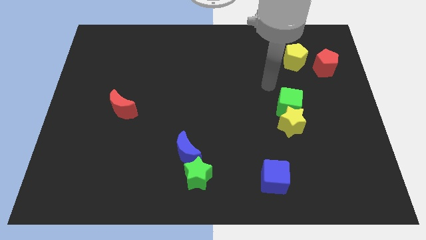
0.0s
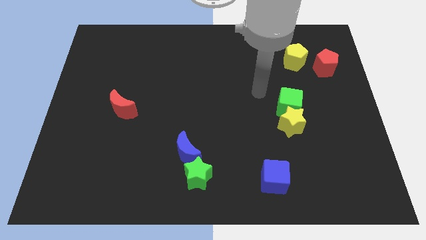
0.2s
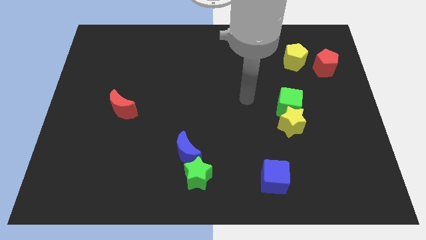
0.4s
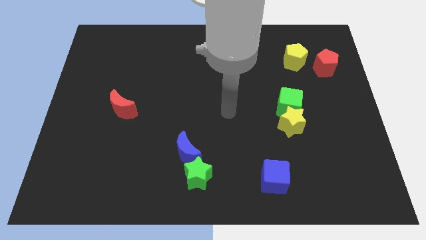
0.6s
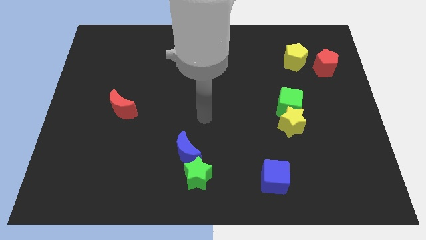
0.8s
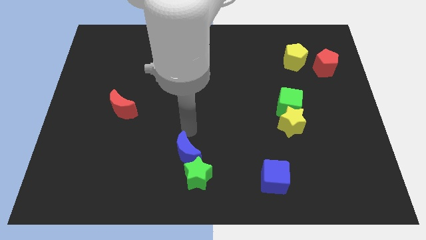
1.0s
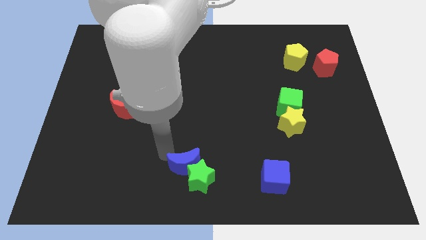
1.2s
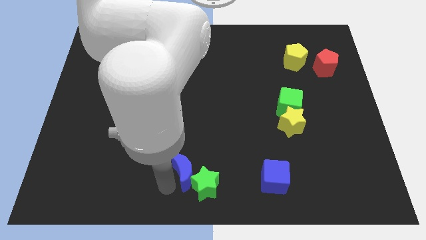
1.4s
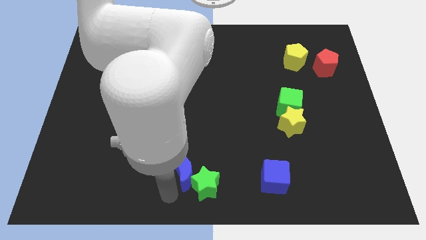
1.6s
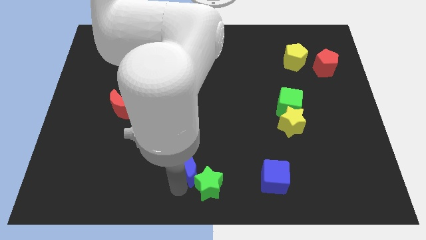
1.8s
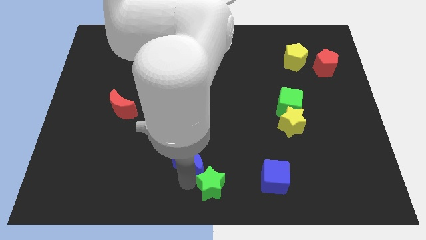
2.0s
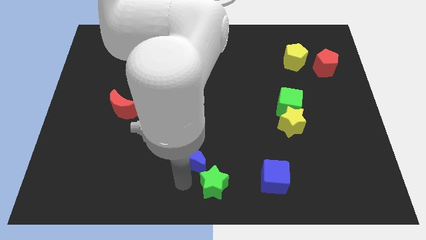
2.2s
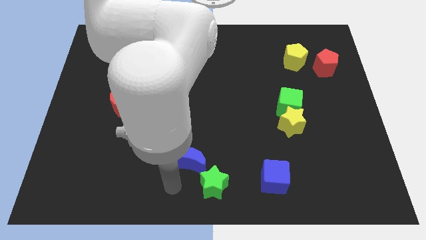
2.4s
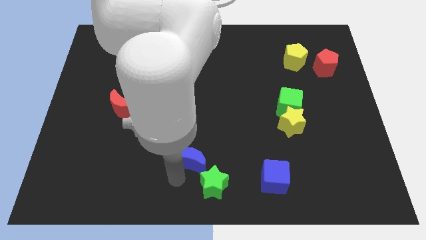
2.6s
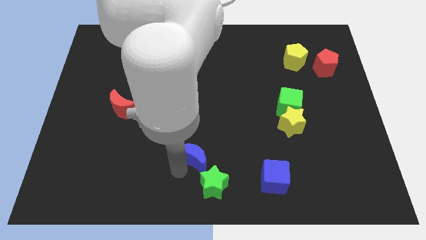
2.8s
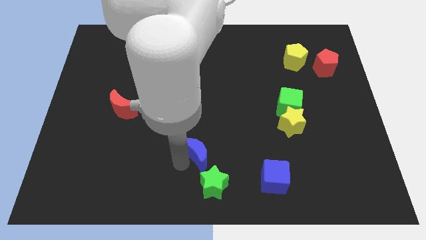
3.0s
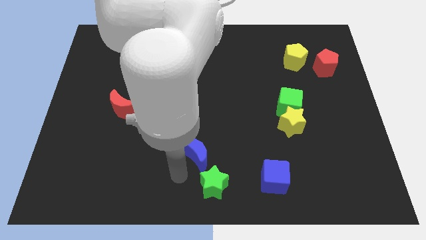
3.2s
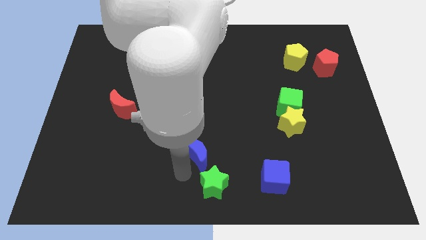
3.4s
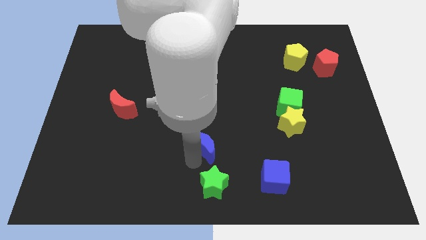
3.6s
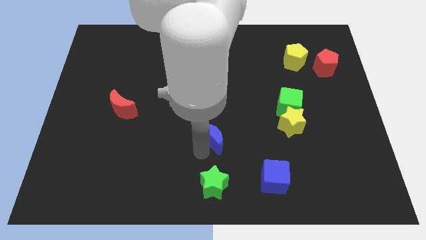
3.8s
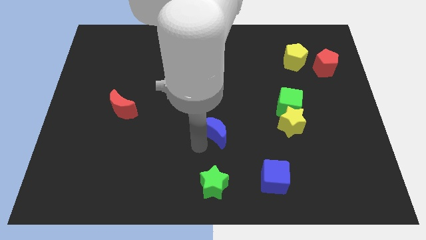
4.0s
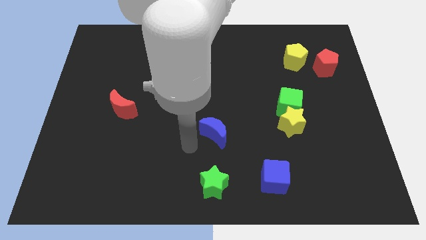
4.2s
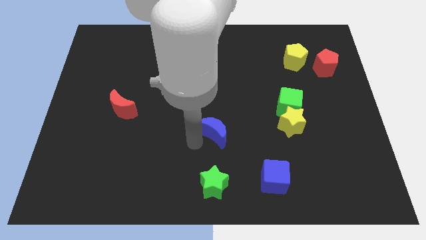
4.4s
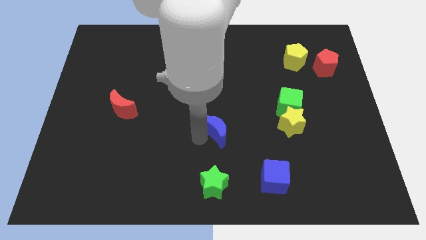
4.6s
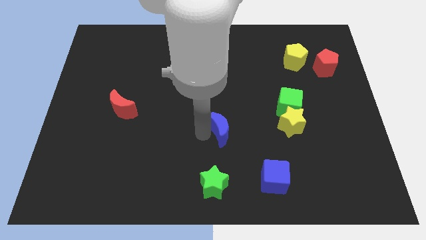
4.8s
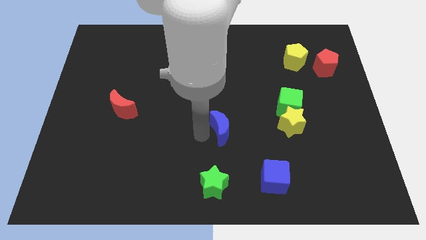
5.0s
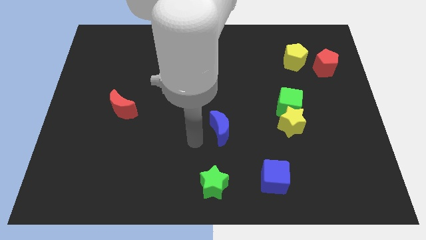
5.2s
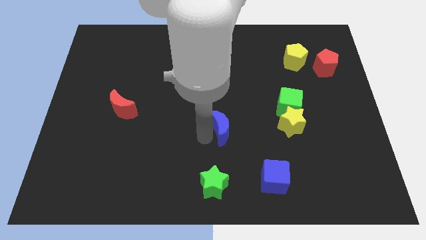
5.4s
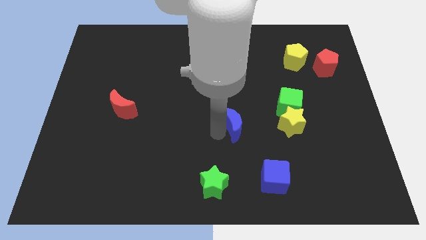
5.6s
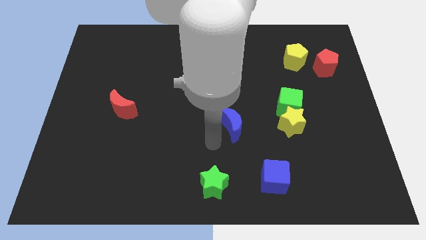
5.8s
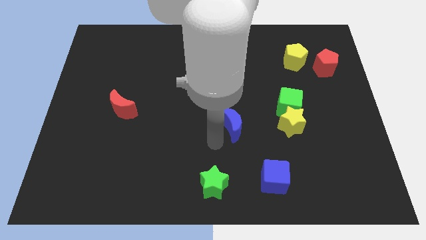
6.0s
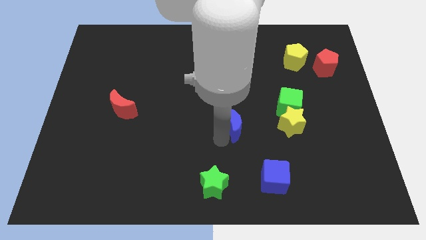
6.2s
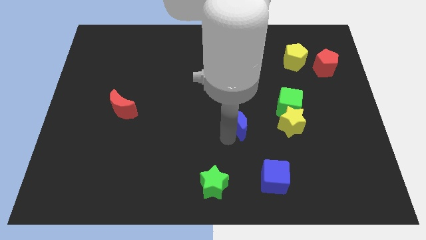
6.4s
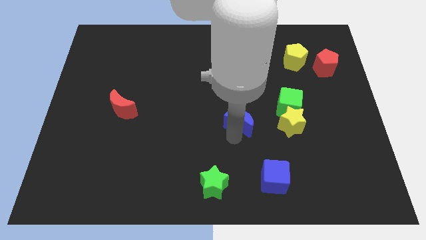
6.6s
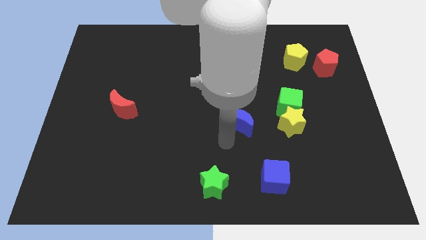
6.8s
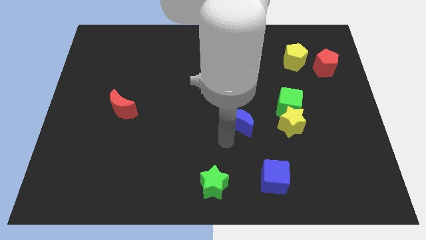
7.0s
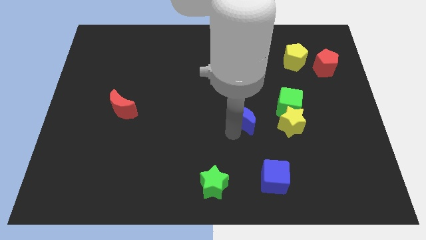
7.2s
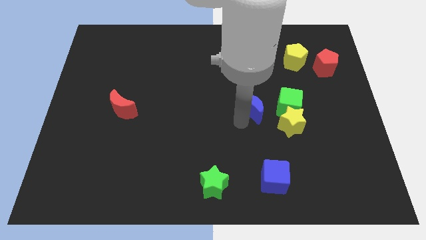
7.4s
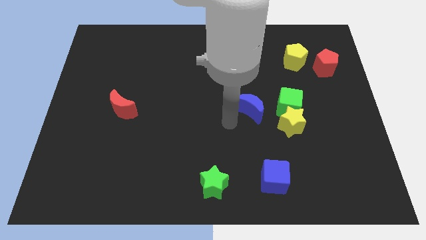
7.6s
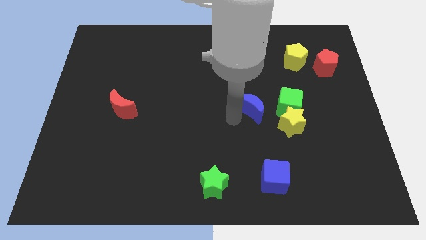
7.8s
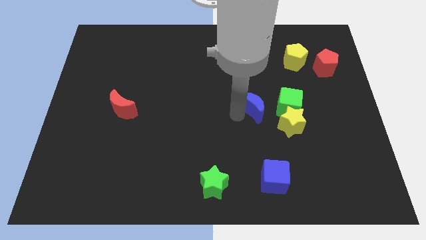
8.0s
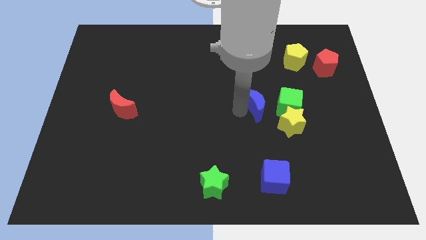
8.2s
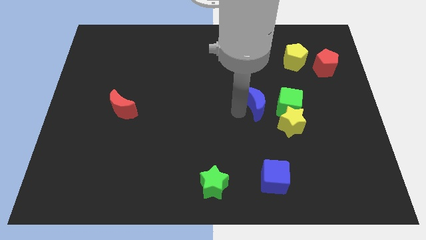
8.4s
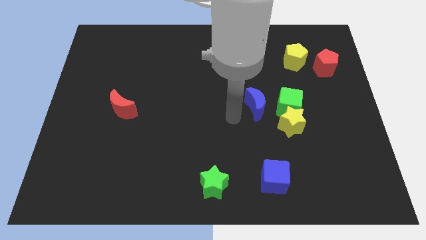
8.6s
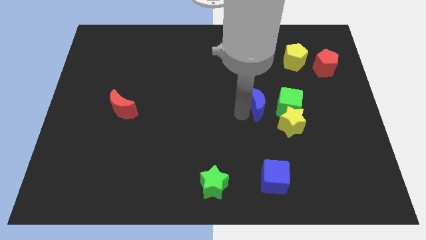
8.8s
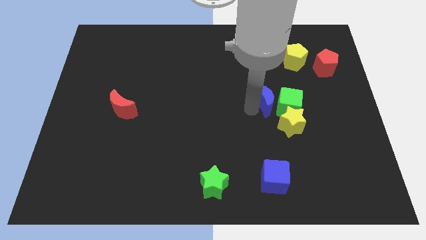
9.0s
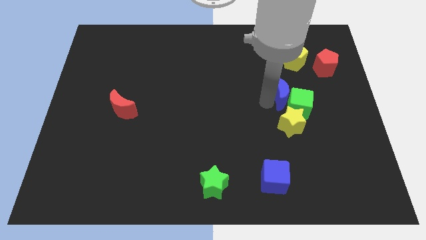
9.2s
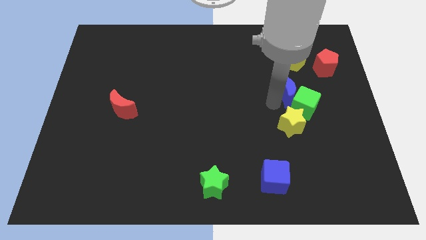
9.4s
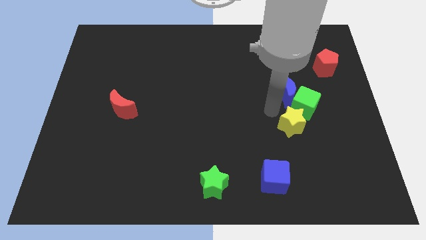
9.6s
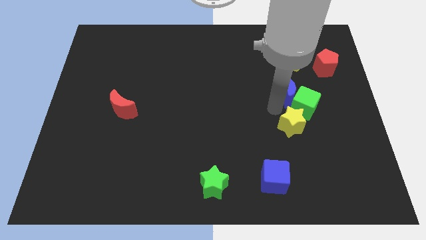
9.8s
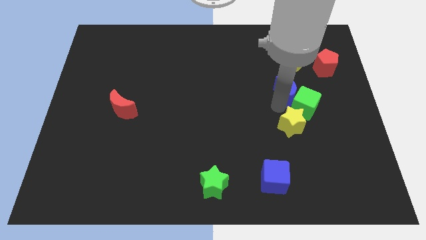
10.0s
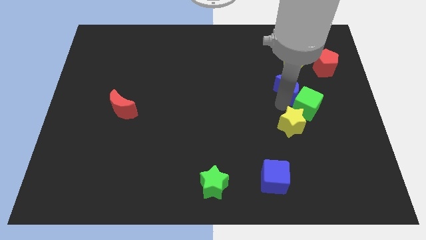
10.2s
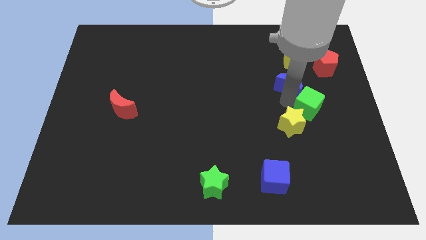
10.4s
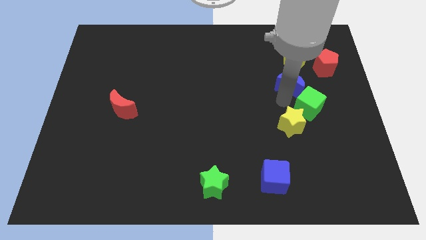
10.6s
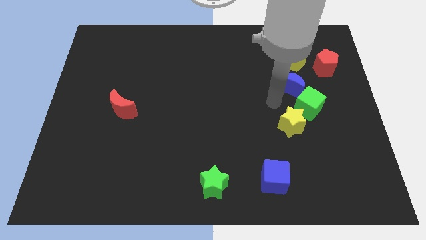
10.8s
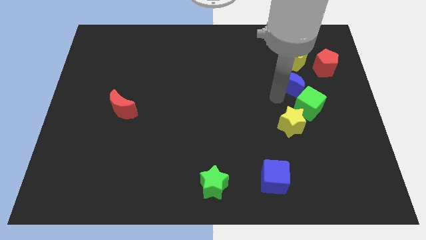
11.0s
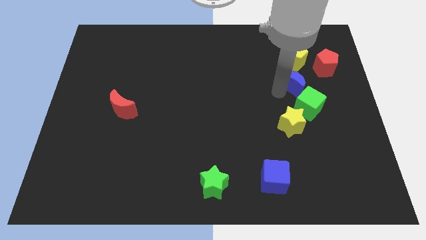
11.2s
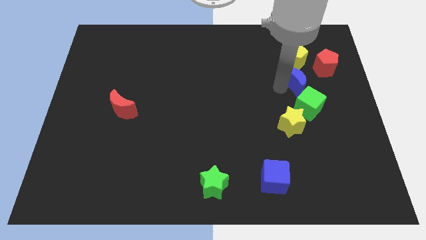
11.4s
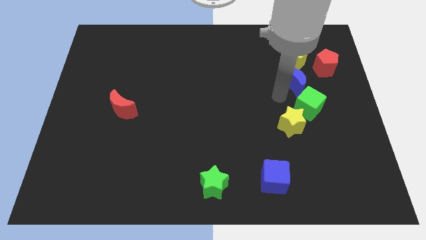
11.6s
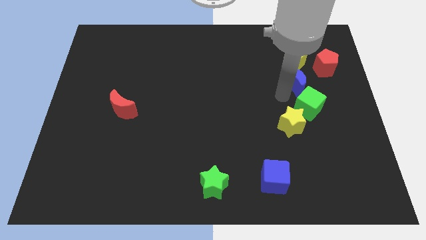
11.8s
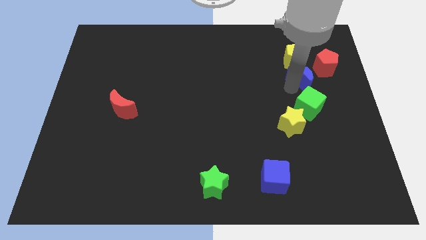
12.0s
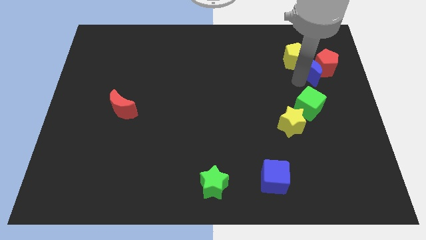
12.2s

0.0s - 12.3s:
slide the blue moon towards the red pentagon
